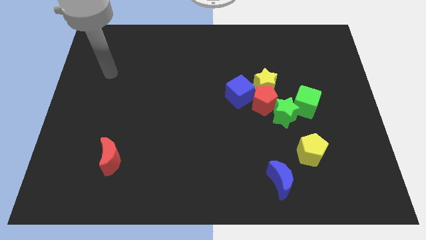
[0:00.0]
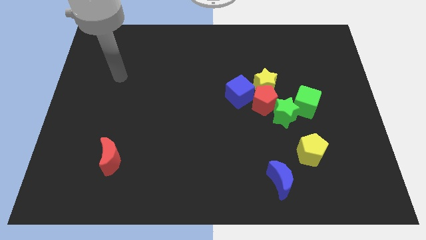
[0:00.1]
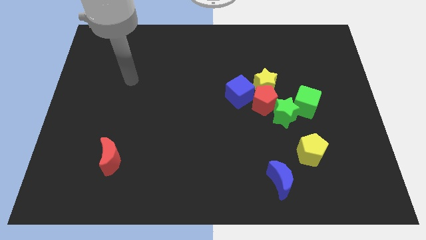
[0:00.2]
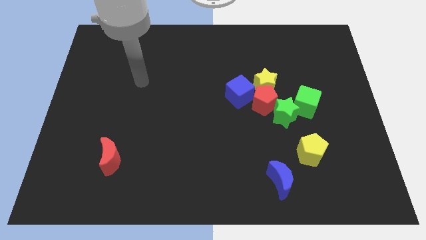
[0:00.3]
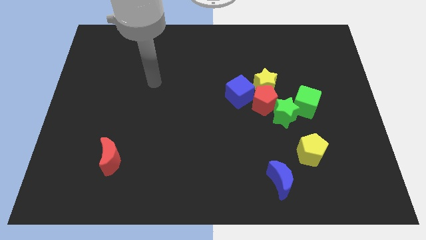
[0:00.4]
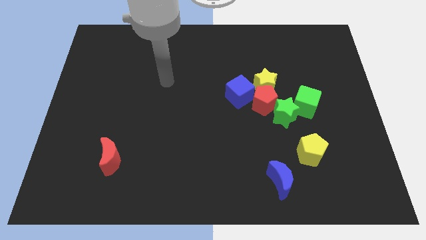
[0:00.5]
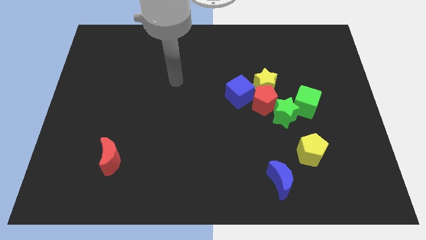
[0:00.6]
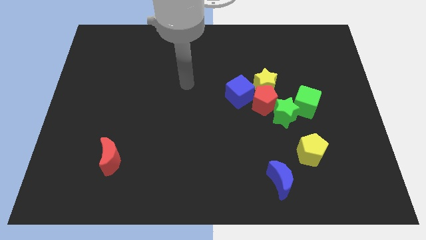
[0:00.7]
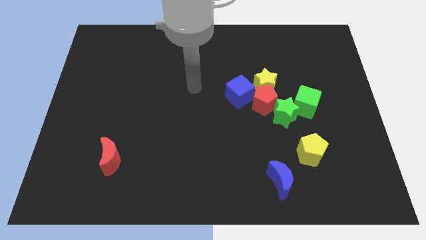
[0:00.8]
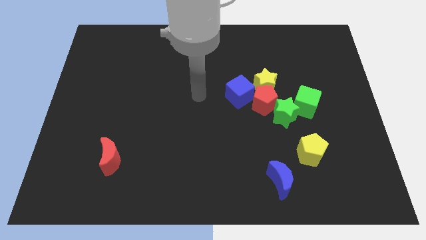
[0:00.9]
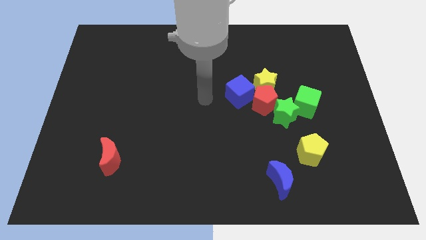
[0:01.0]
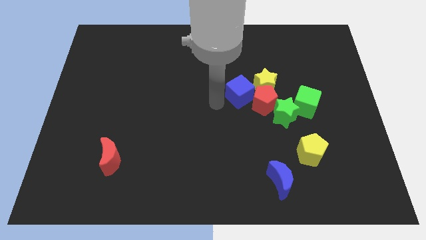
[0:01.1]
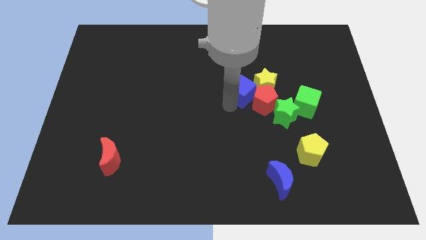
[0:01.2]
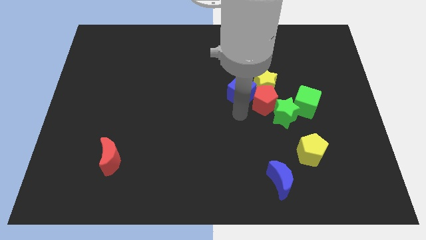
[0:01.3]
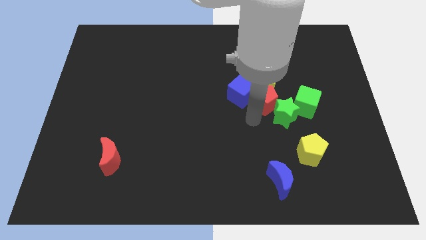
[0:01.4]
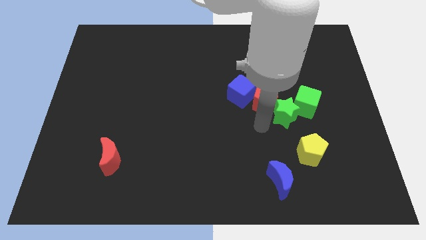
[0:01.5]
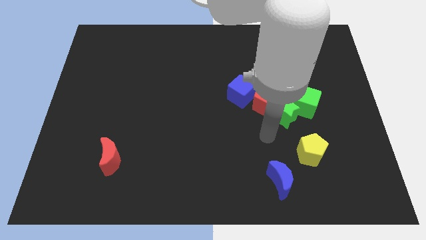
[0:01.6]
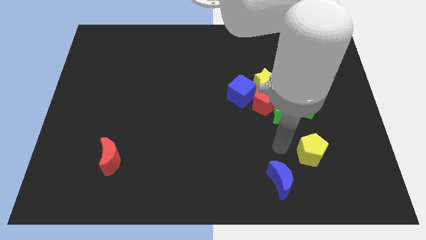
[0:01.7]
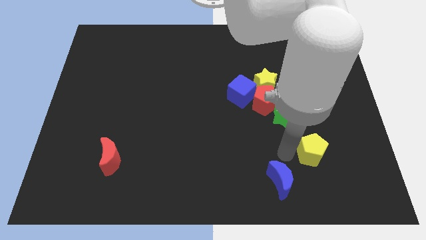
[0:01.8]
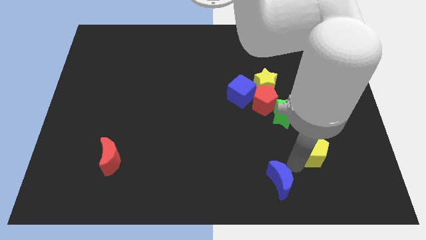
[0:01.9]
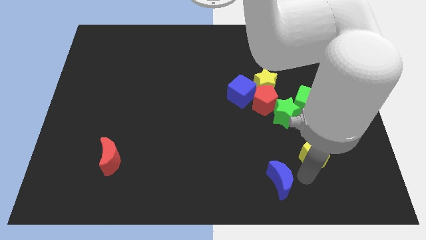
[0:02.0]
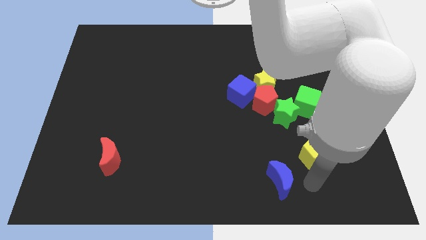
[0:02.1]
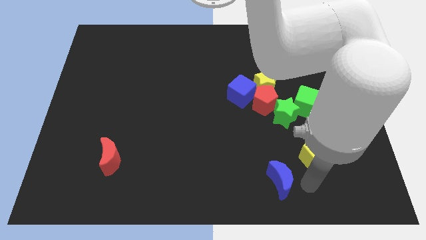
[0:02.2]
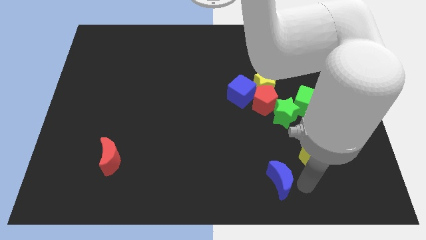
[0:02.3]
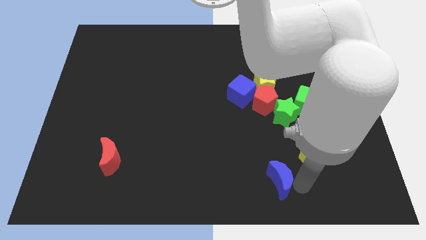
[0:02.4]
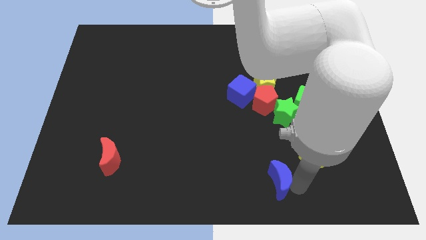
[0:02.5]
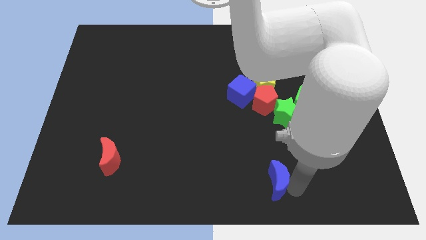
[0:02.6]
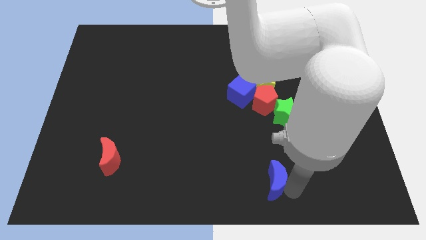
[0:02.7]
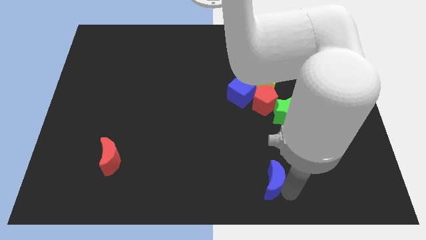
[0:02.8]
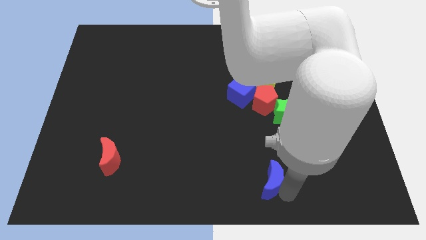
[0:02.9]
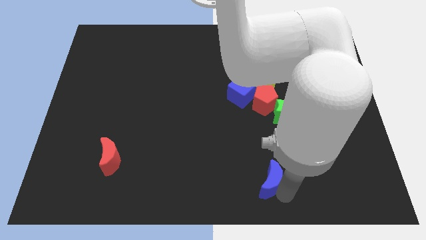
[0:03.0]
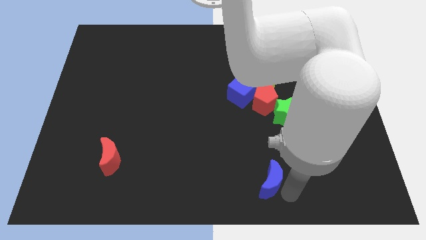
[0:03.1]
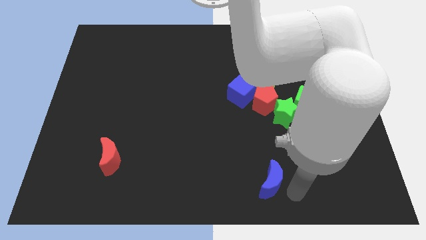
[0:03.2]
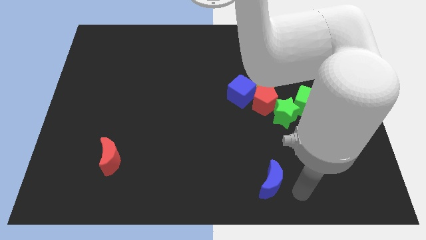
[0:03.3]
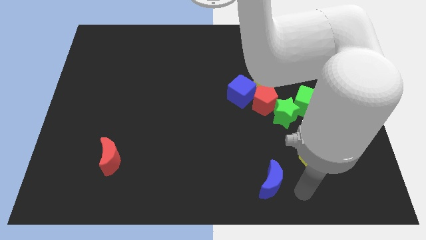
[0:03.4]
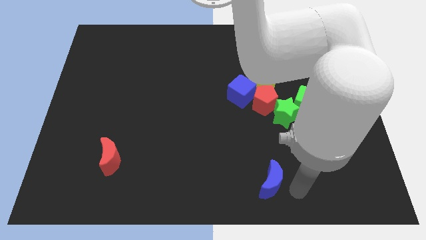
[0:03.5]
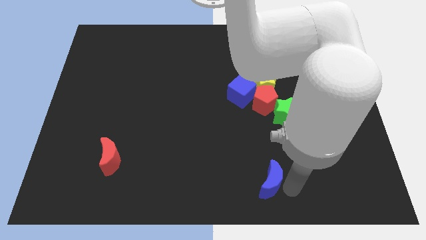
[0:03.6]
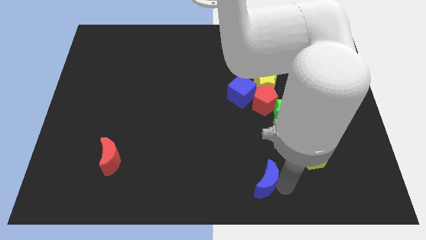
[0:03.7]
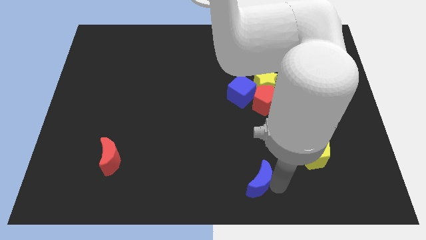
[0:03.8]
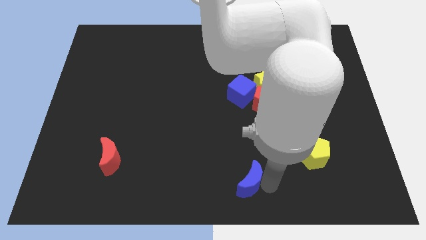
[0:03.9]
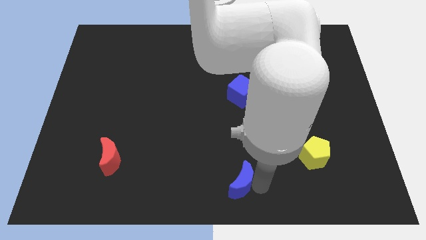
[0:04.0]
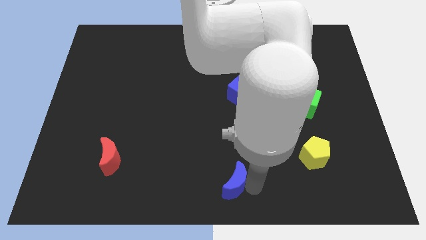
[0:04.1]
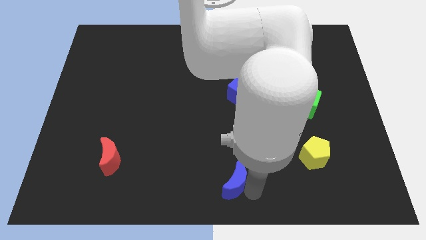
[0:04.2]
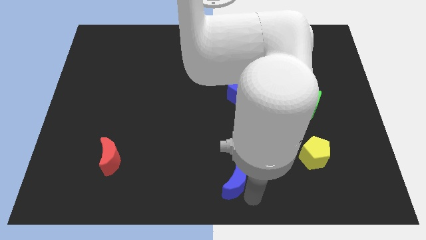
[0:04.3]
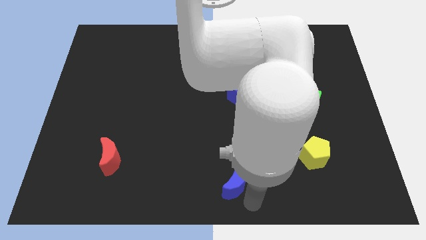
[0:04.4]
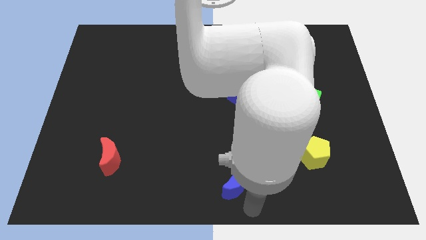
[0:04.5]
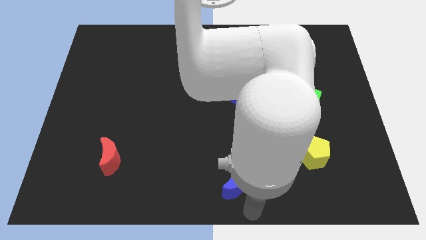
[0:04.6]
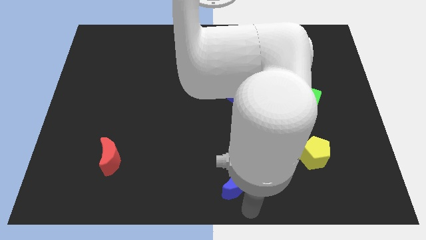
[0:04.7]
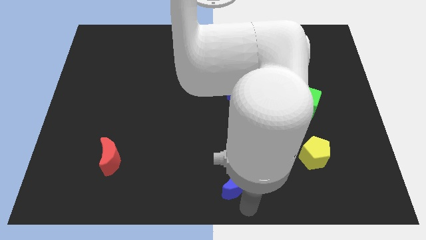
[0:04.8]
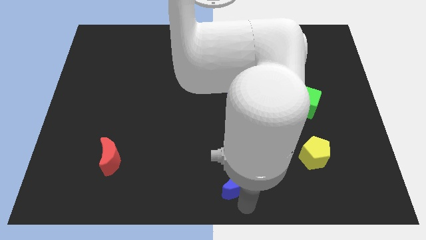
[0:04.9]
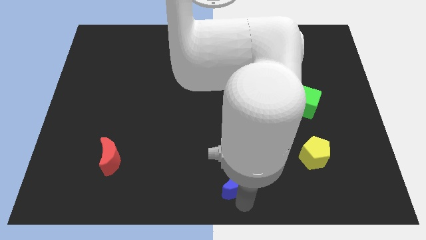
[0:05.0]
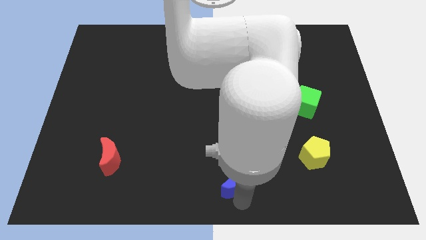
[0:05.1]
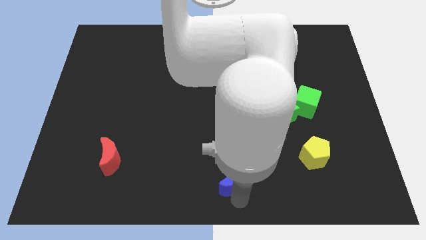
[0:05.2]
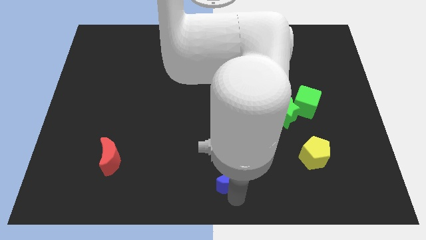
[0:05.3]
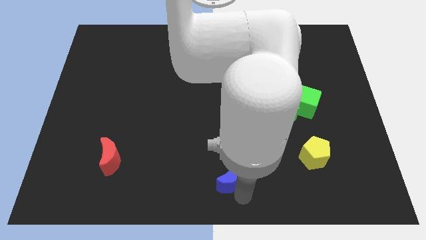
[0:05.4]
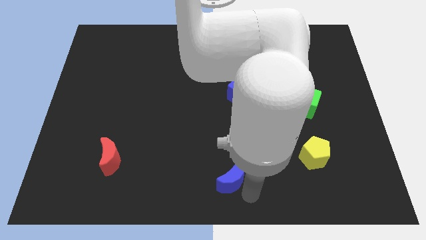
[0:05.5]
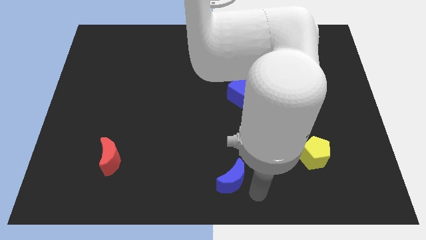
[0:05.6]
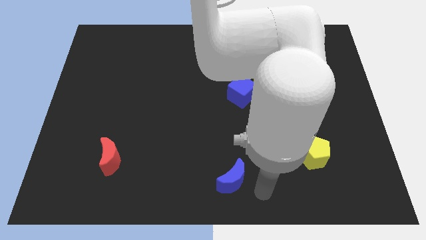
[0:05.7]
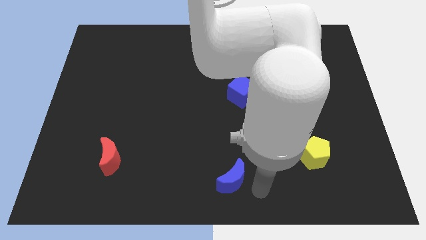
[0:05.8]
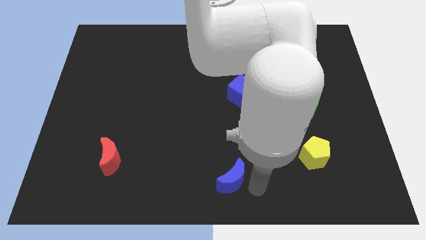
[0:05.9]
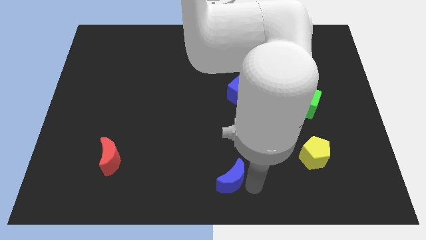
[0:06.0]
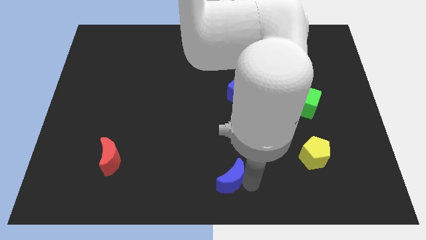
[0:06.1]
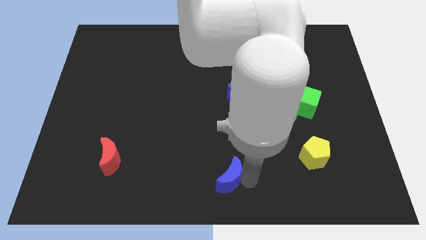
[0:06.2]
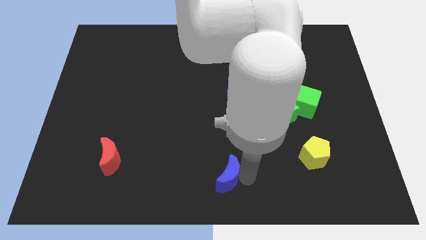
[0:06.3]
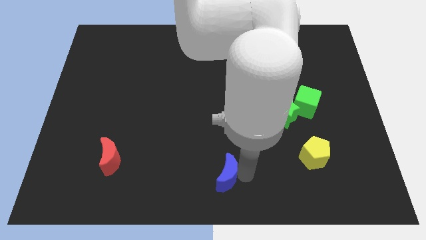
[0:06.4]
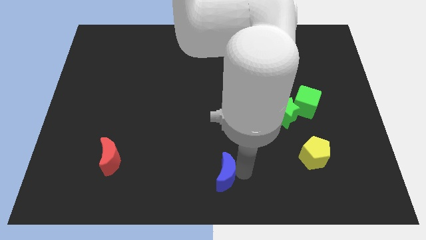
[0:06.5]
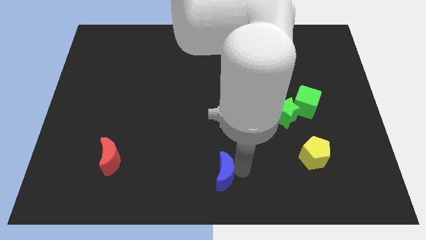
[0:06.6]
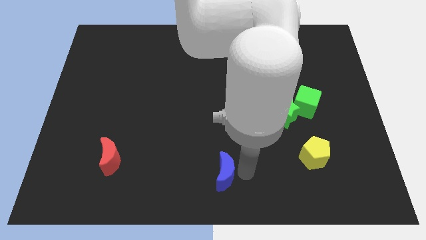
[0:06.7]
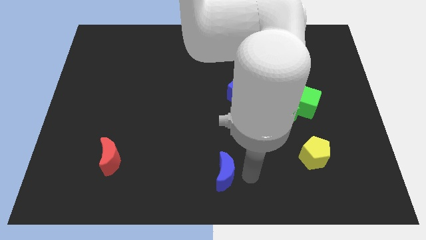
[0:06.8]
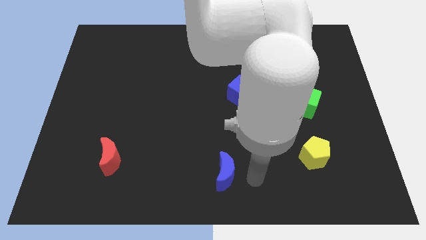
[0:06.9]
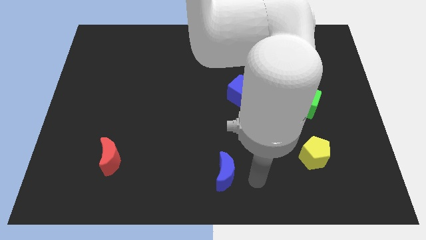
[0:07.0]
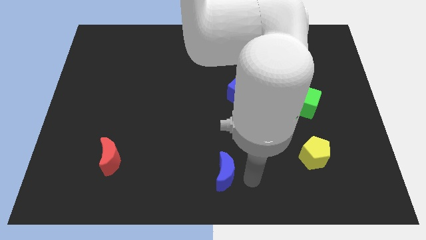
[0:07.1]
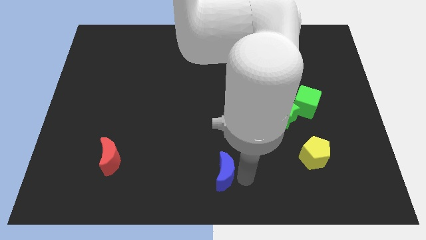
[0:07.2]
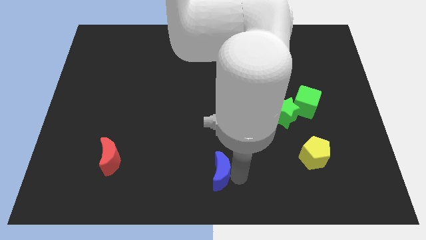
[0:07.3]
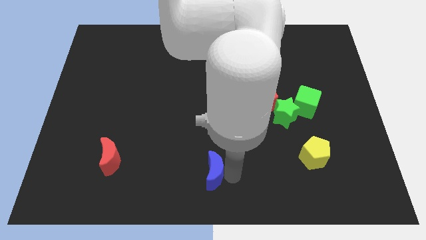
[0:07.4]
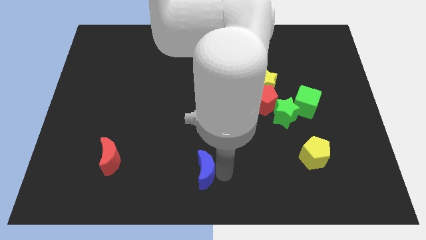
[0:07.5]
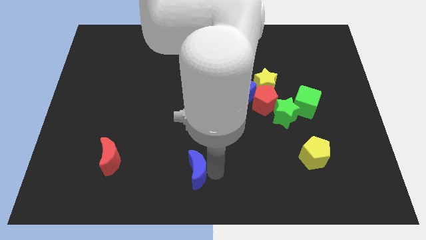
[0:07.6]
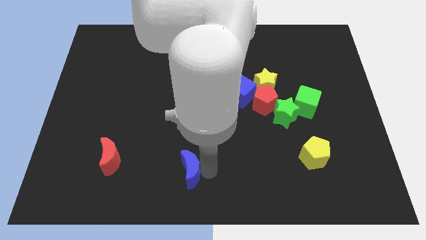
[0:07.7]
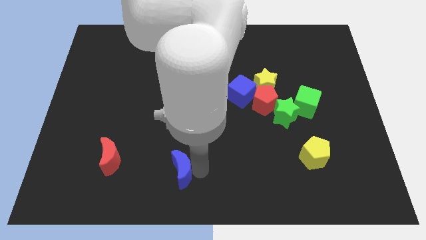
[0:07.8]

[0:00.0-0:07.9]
move the blue moon left
